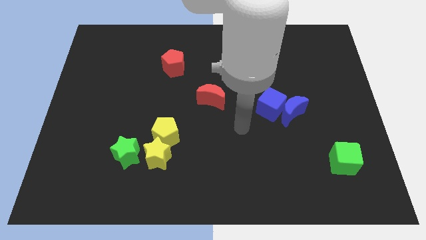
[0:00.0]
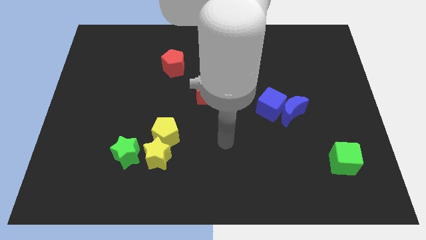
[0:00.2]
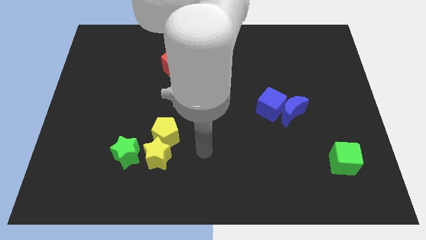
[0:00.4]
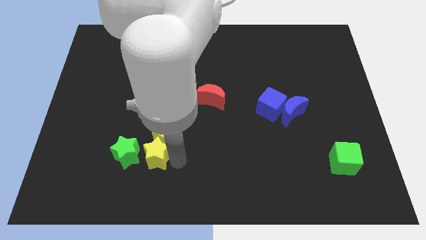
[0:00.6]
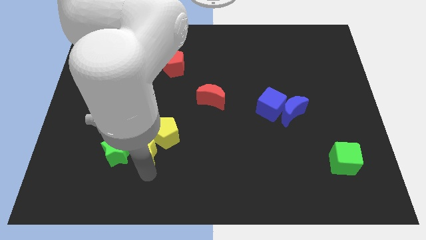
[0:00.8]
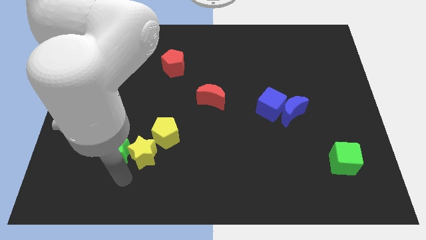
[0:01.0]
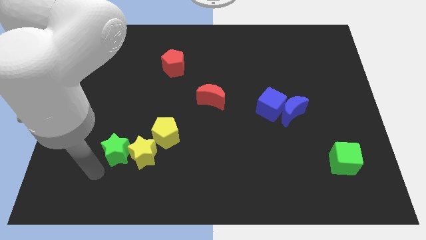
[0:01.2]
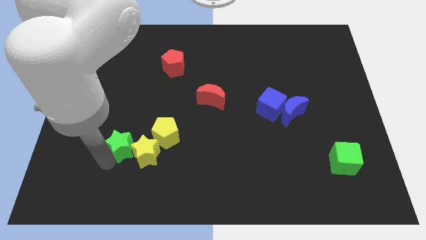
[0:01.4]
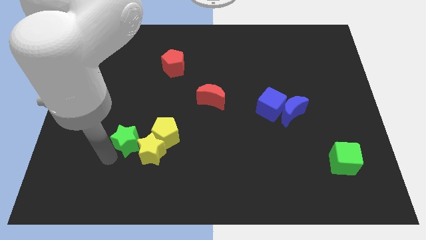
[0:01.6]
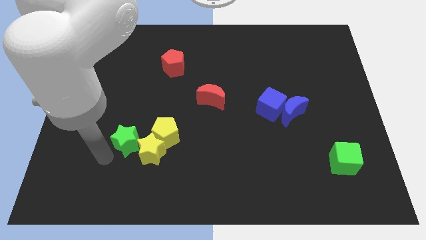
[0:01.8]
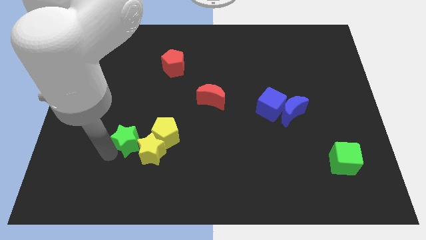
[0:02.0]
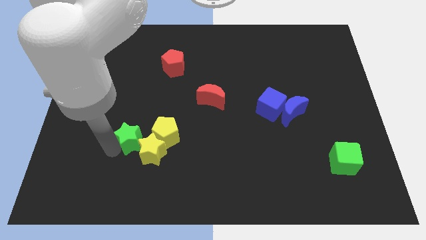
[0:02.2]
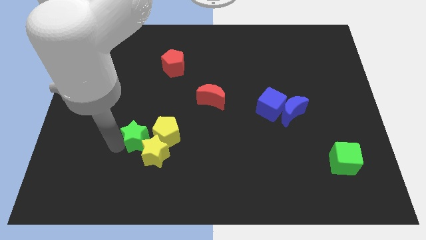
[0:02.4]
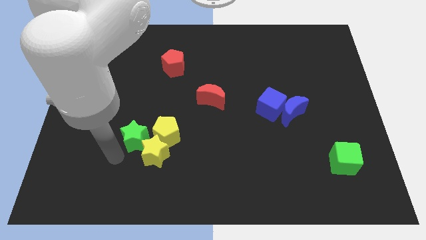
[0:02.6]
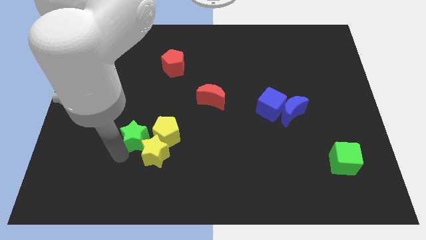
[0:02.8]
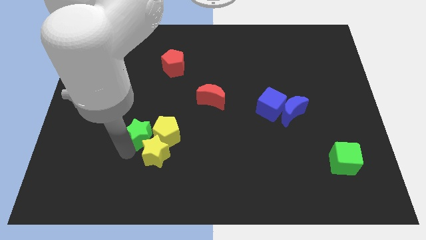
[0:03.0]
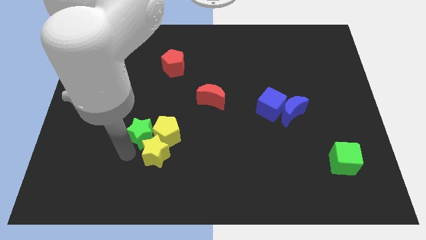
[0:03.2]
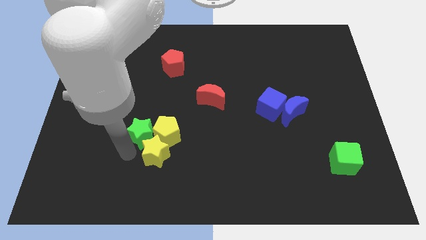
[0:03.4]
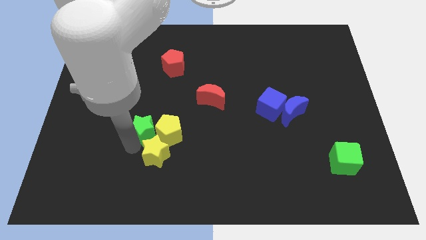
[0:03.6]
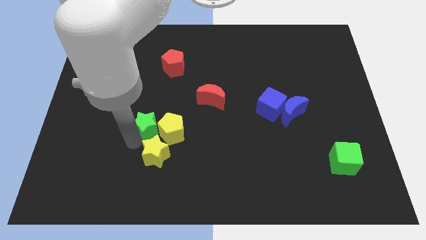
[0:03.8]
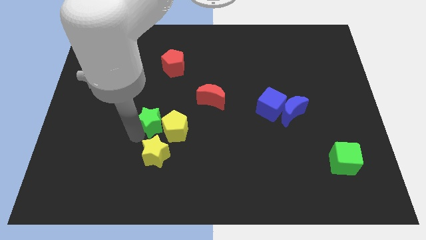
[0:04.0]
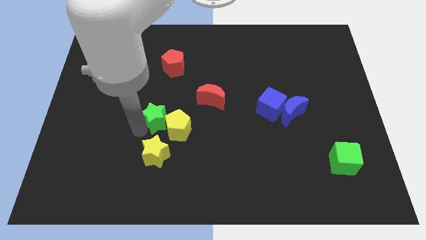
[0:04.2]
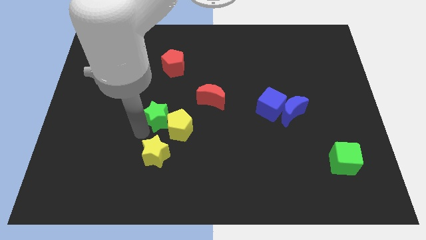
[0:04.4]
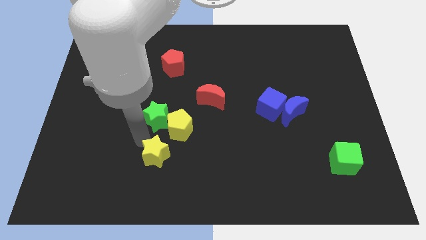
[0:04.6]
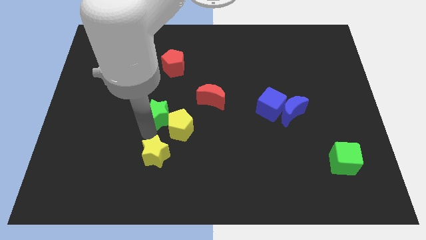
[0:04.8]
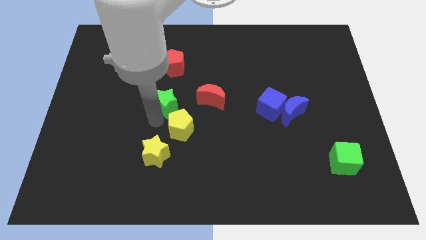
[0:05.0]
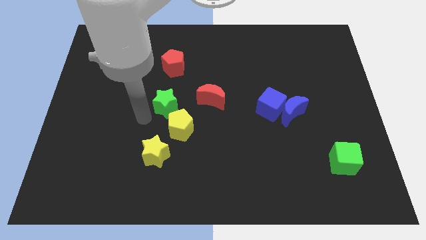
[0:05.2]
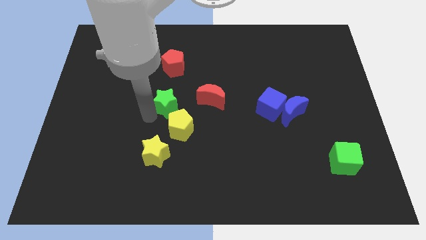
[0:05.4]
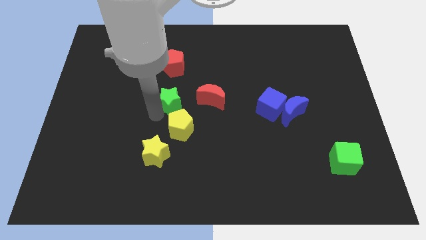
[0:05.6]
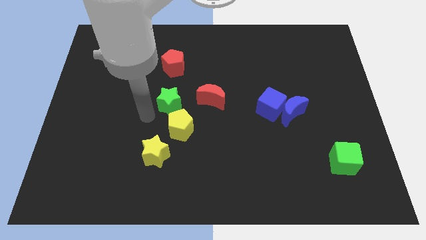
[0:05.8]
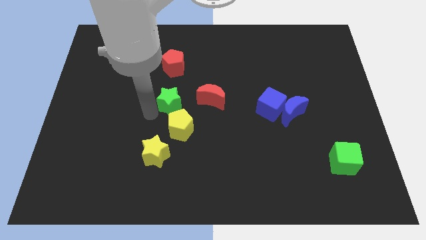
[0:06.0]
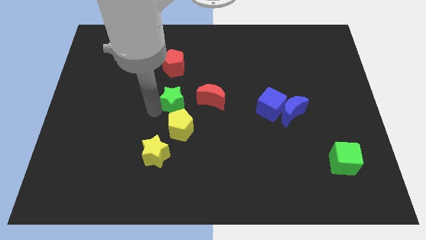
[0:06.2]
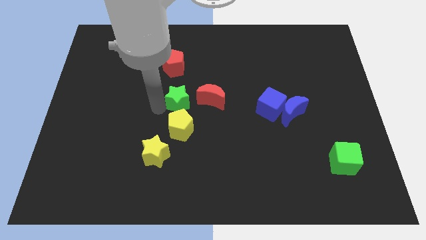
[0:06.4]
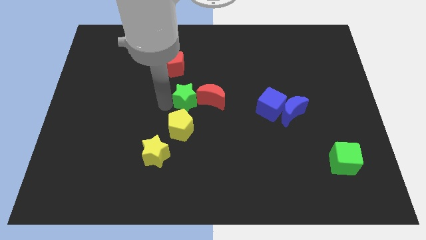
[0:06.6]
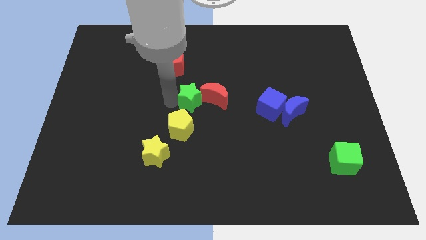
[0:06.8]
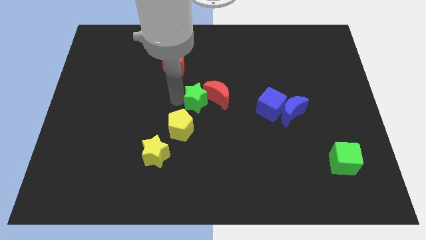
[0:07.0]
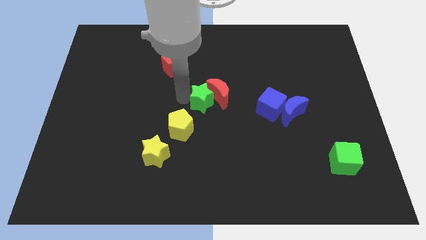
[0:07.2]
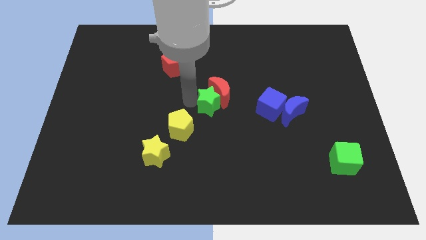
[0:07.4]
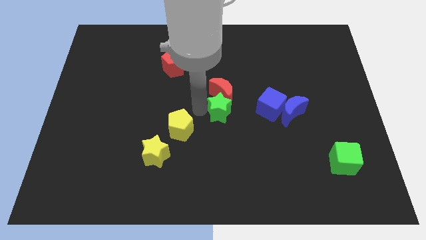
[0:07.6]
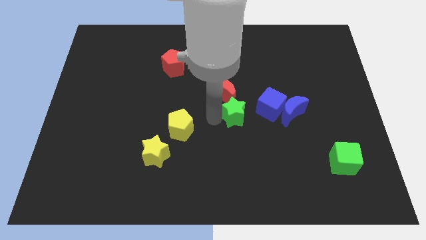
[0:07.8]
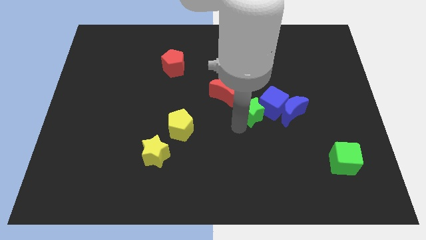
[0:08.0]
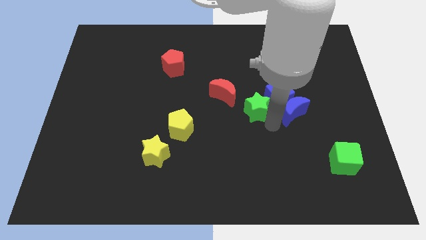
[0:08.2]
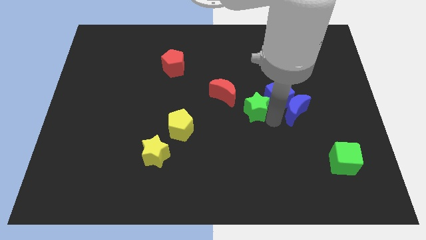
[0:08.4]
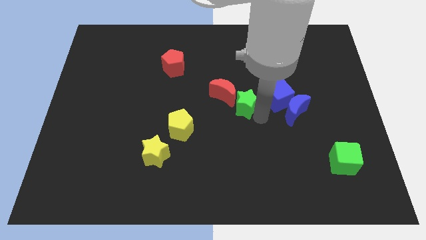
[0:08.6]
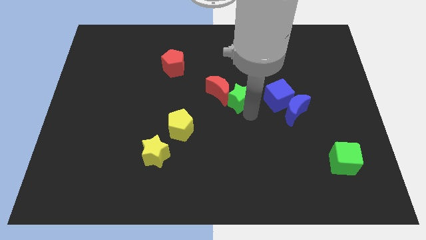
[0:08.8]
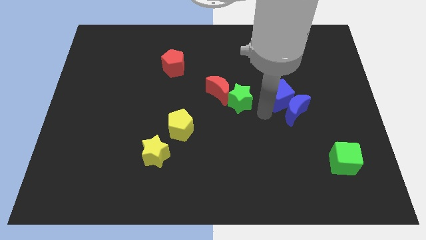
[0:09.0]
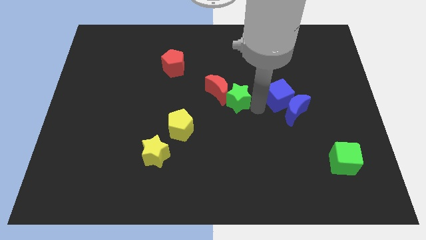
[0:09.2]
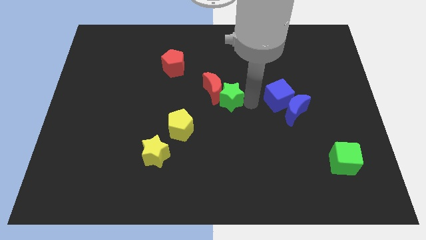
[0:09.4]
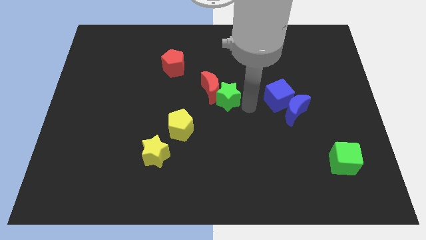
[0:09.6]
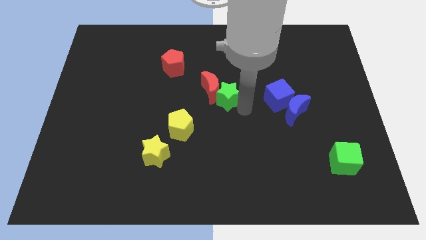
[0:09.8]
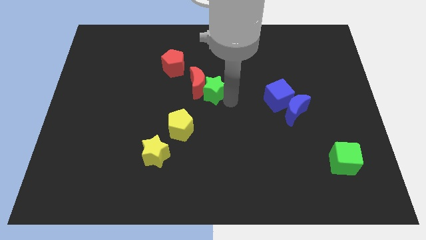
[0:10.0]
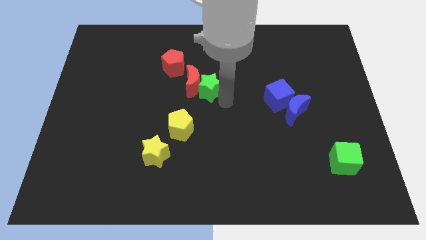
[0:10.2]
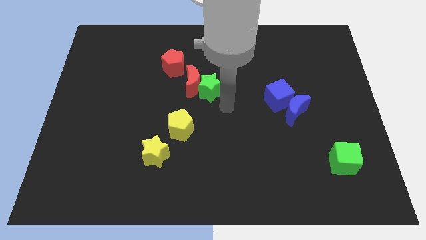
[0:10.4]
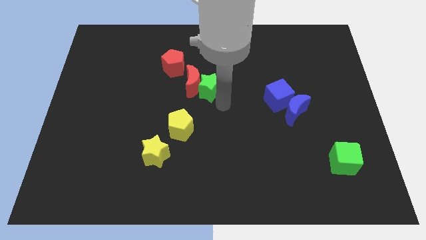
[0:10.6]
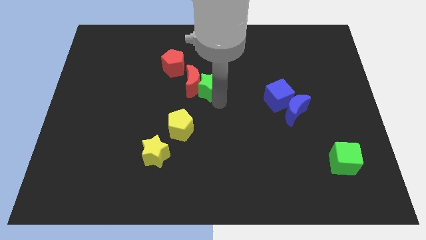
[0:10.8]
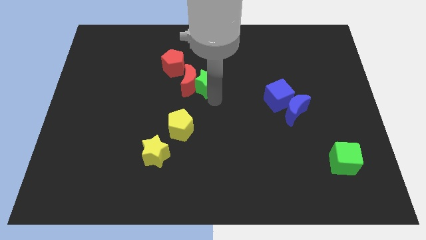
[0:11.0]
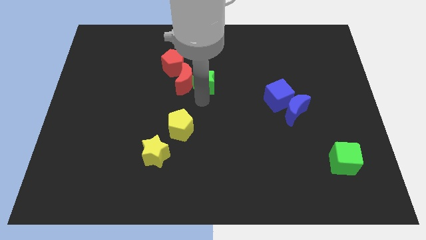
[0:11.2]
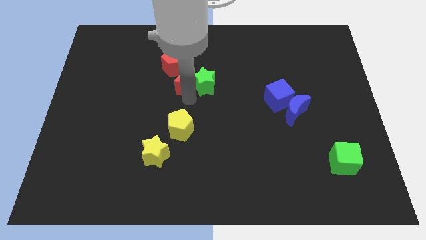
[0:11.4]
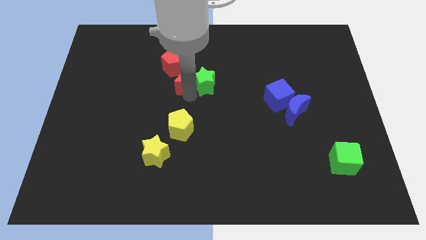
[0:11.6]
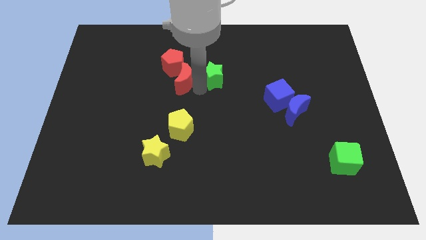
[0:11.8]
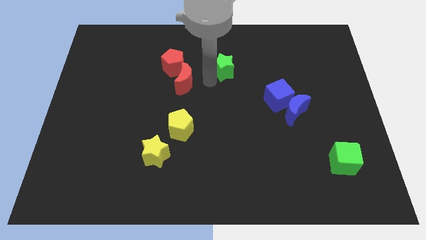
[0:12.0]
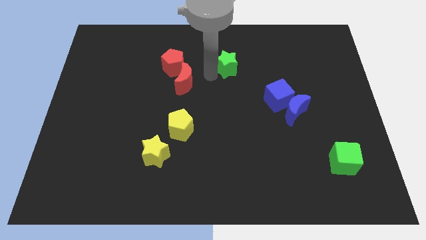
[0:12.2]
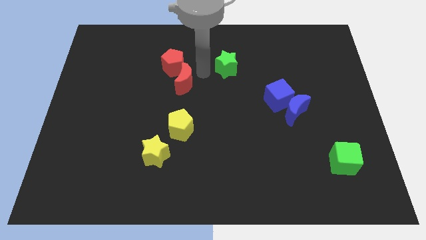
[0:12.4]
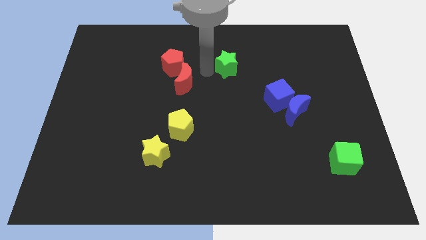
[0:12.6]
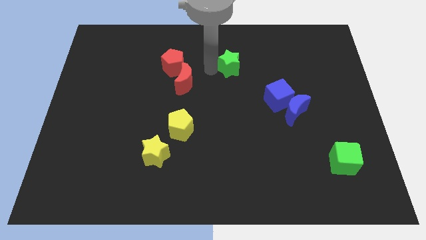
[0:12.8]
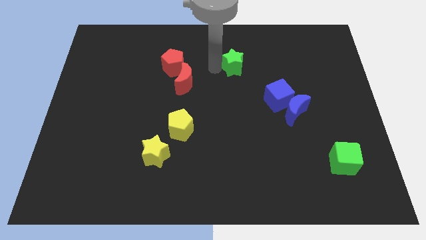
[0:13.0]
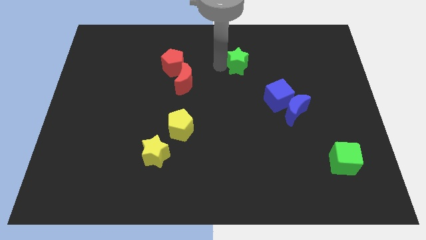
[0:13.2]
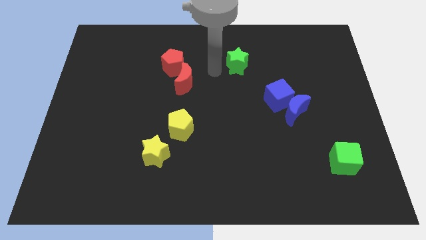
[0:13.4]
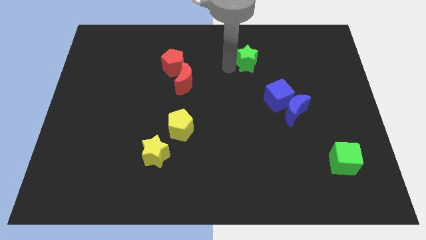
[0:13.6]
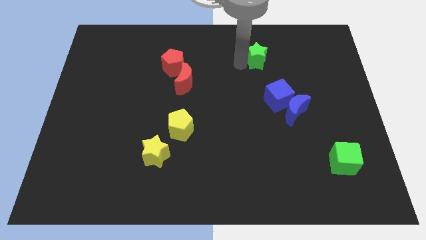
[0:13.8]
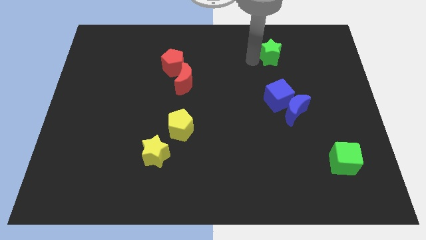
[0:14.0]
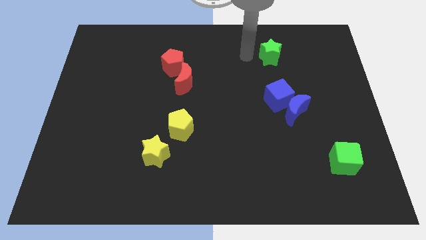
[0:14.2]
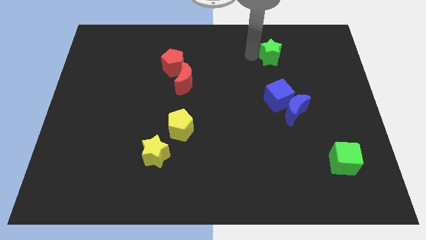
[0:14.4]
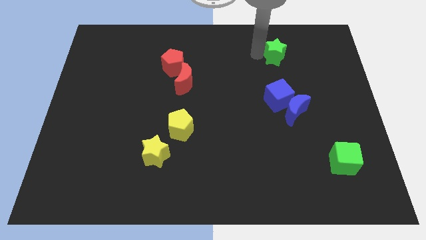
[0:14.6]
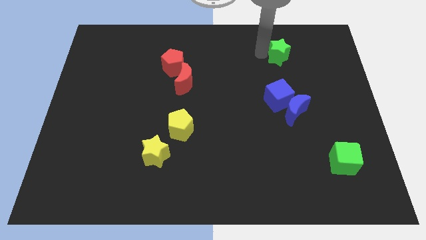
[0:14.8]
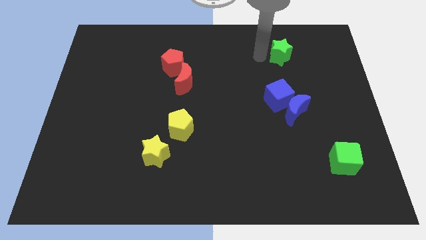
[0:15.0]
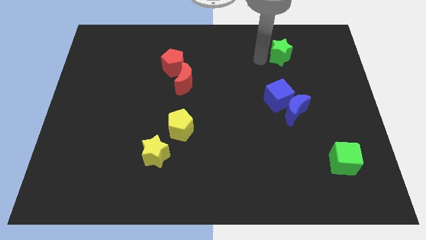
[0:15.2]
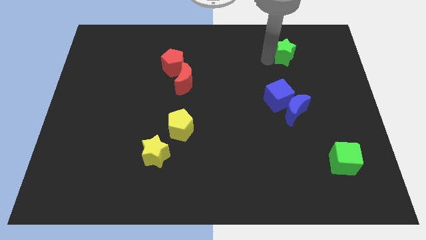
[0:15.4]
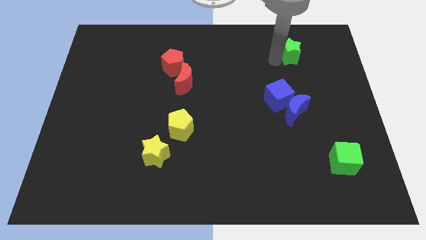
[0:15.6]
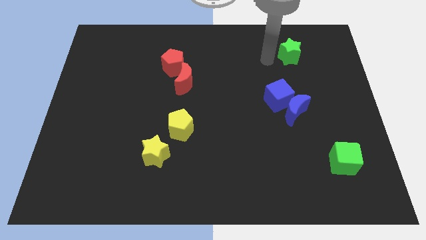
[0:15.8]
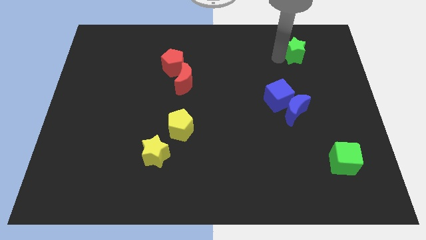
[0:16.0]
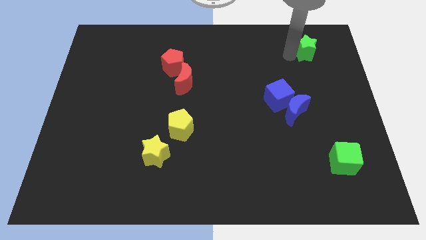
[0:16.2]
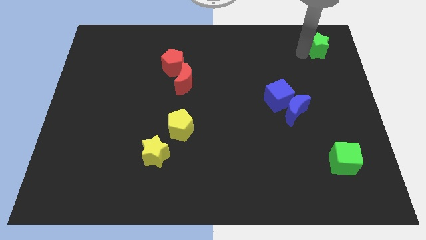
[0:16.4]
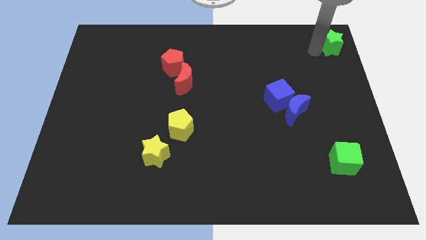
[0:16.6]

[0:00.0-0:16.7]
put the green star to the top right corner
